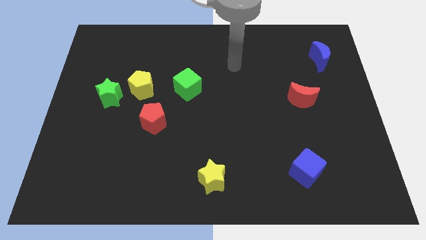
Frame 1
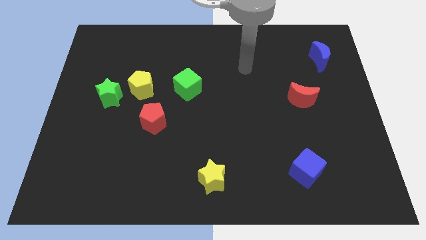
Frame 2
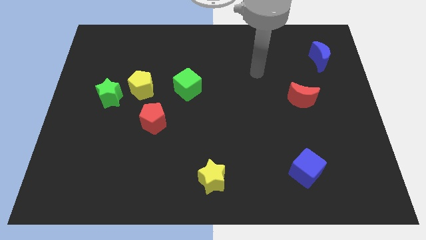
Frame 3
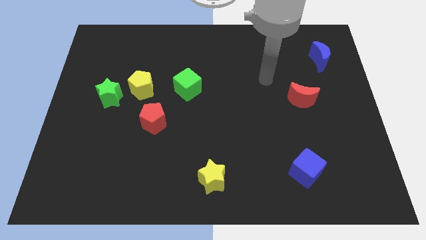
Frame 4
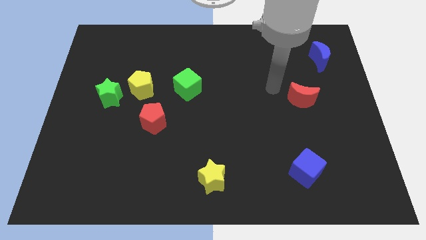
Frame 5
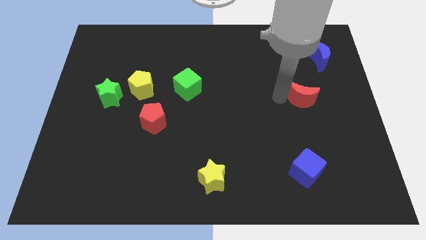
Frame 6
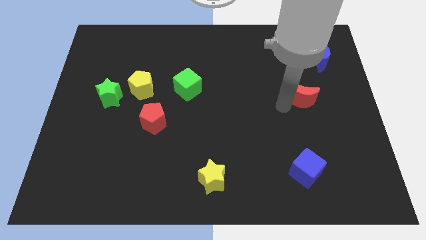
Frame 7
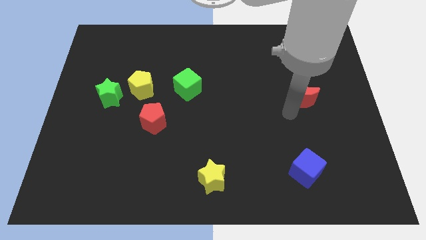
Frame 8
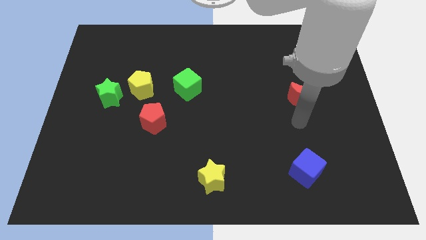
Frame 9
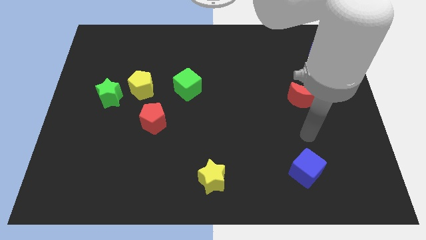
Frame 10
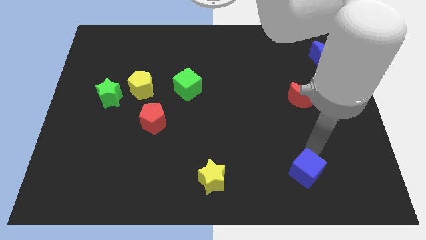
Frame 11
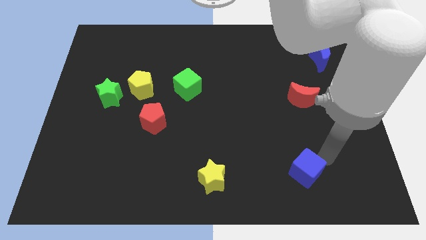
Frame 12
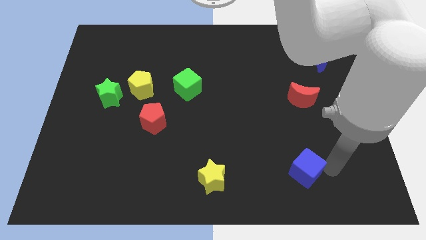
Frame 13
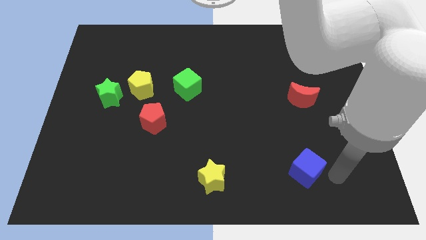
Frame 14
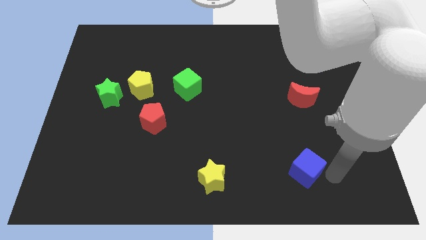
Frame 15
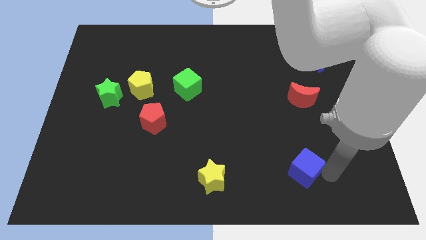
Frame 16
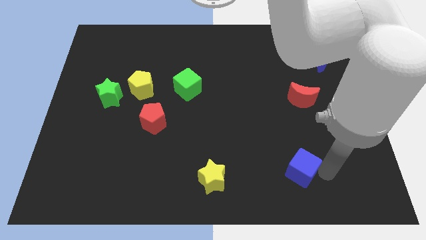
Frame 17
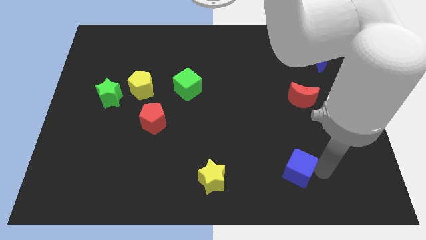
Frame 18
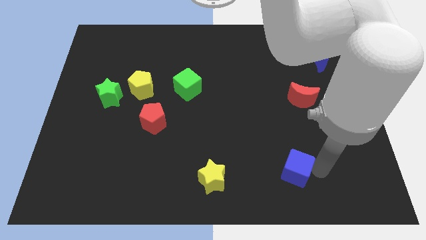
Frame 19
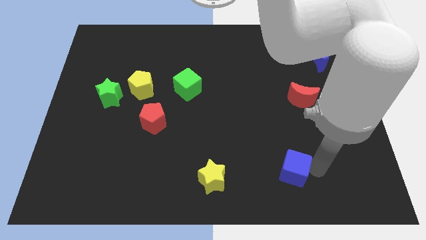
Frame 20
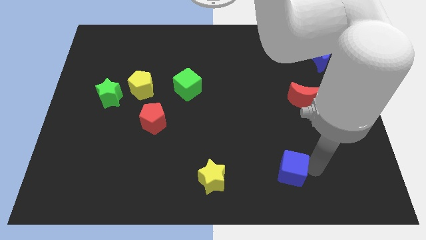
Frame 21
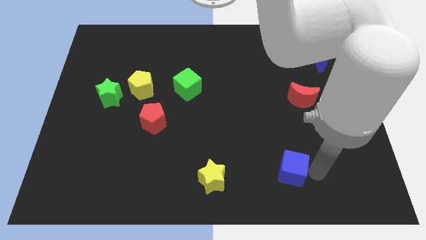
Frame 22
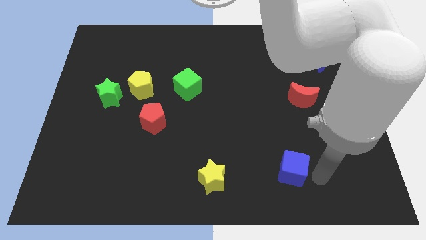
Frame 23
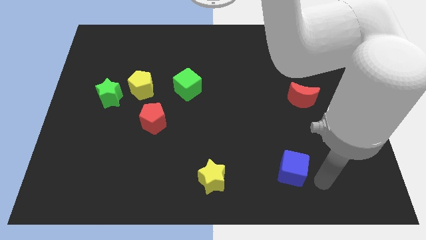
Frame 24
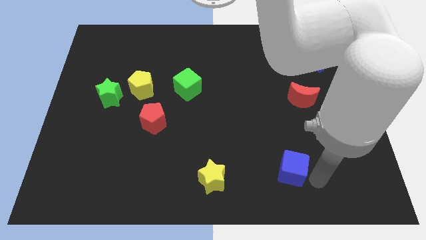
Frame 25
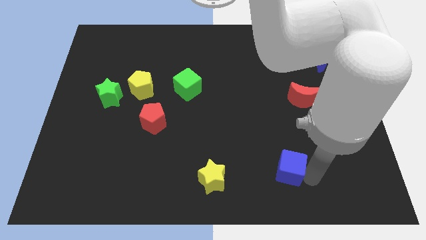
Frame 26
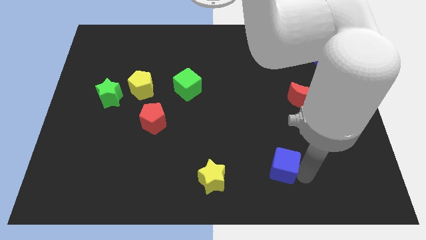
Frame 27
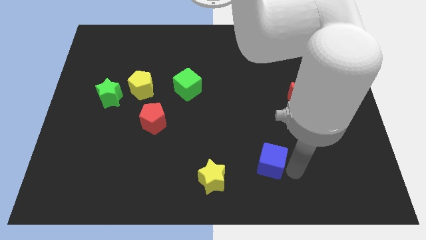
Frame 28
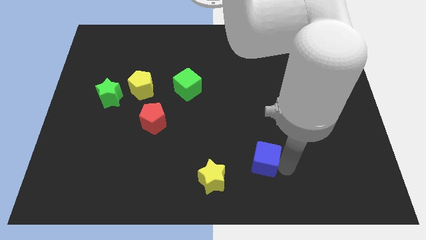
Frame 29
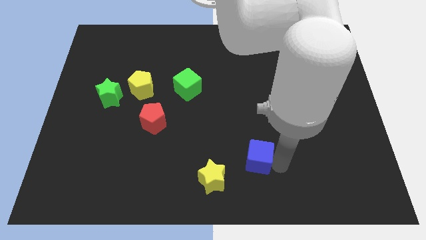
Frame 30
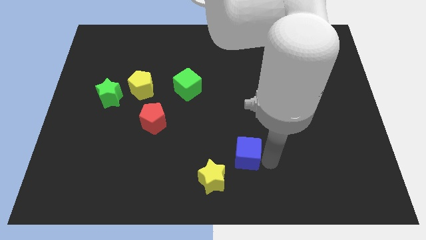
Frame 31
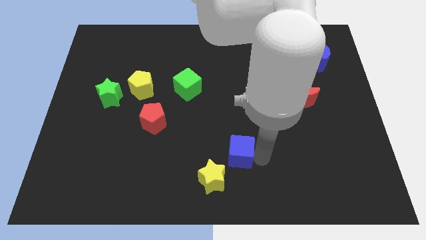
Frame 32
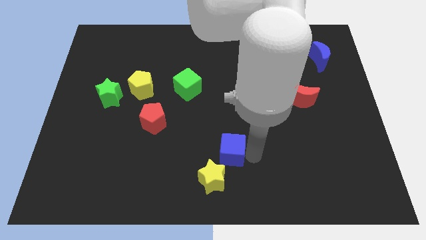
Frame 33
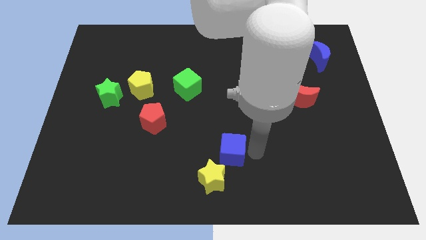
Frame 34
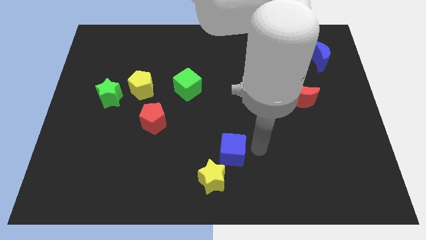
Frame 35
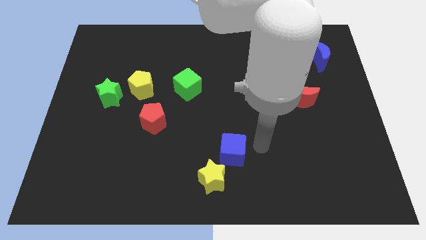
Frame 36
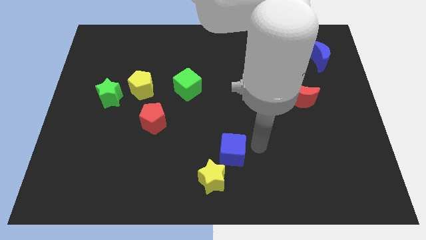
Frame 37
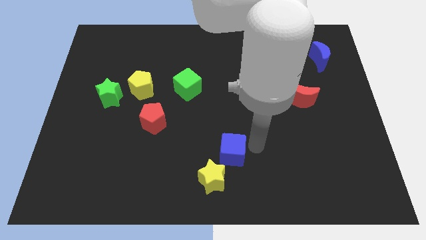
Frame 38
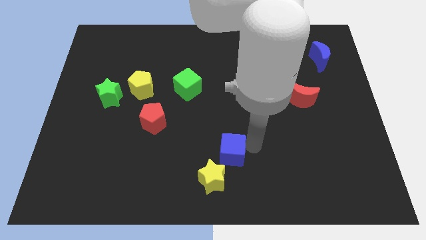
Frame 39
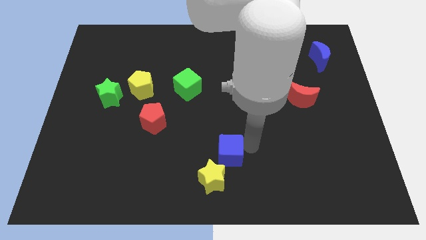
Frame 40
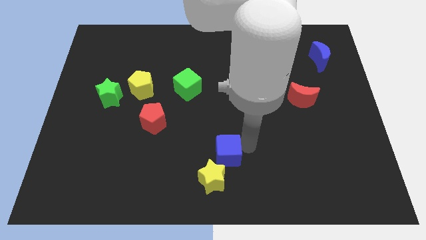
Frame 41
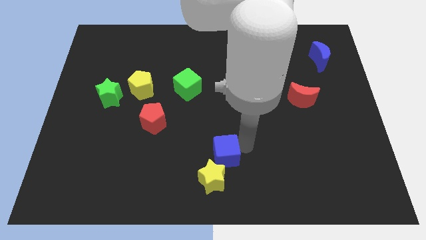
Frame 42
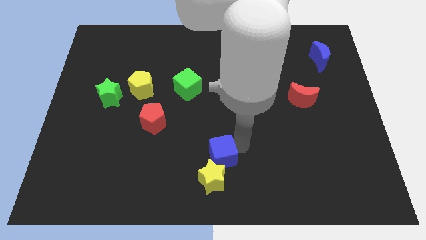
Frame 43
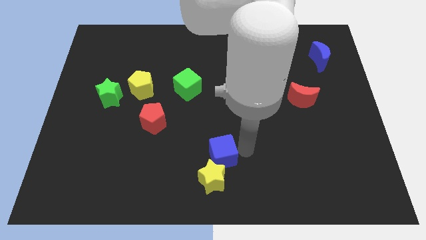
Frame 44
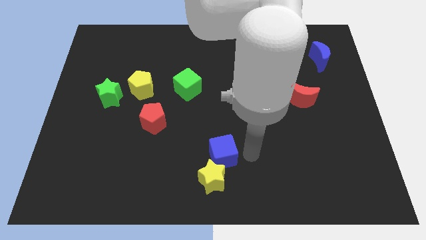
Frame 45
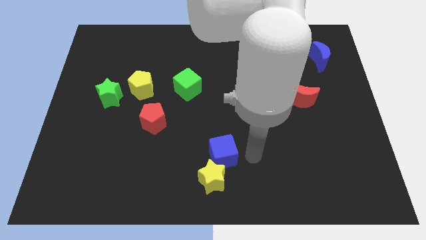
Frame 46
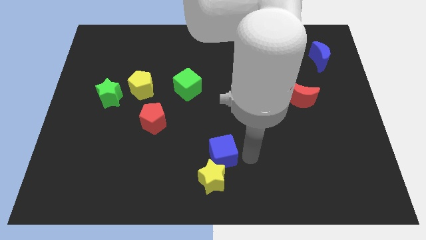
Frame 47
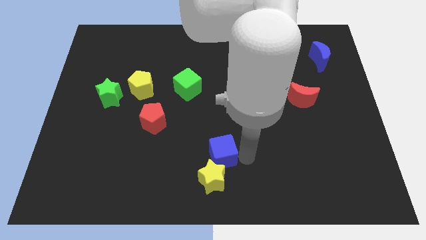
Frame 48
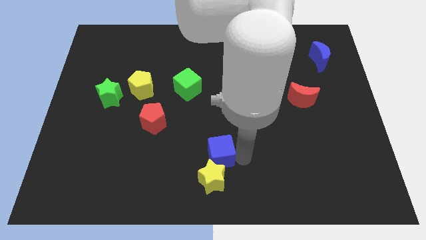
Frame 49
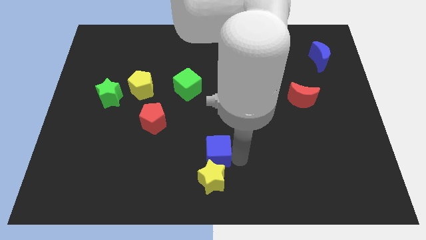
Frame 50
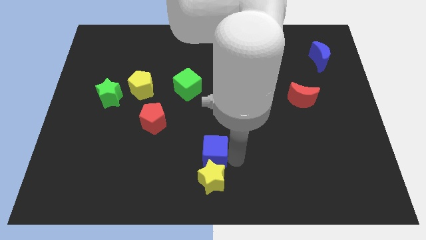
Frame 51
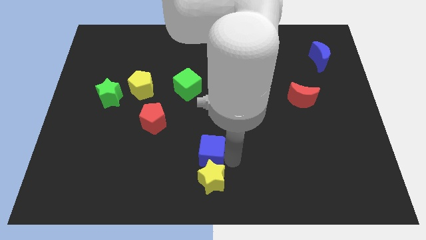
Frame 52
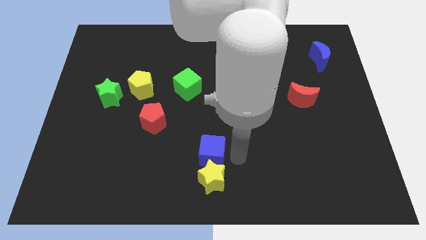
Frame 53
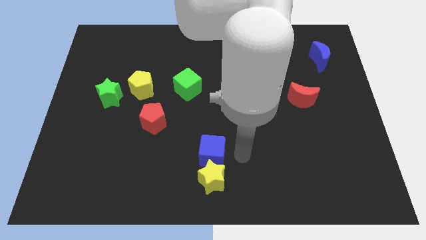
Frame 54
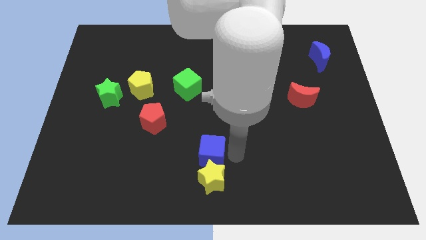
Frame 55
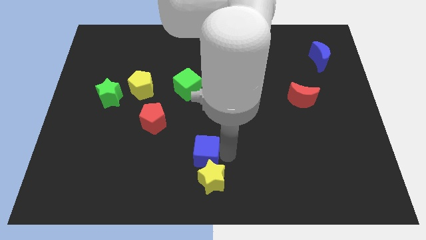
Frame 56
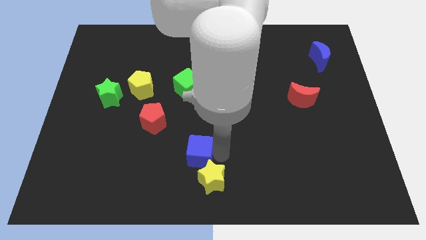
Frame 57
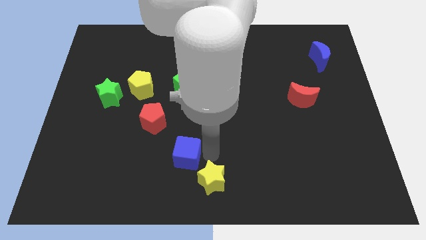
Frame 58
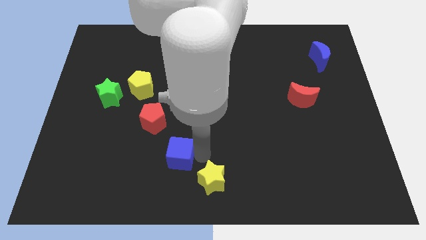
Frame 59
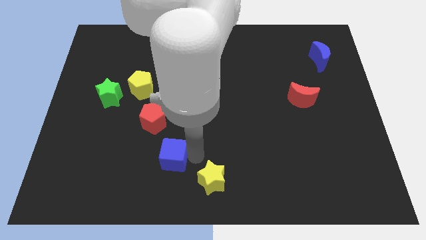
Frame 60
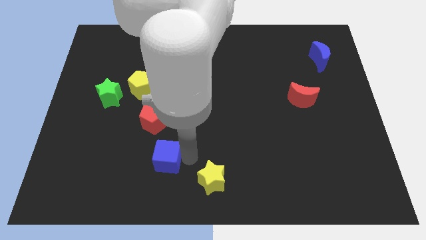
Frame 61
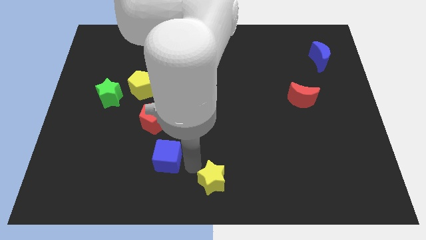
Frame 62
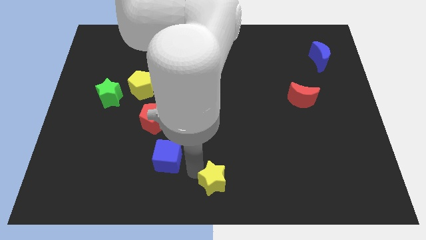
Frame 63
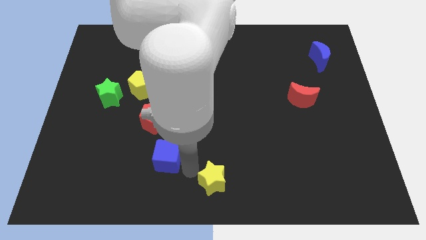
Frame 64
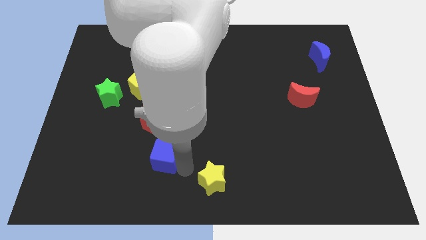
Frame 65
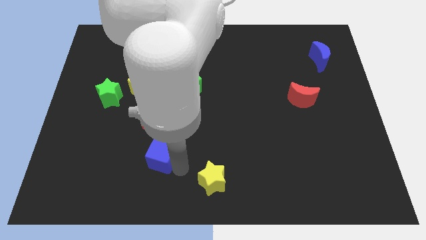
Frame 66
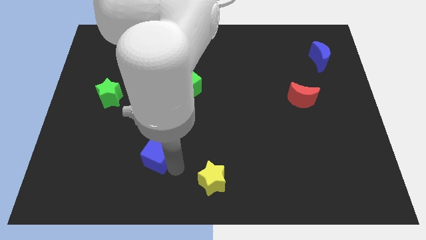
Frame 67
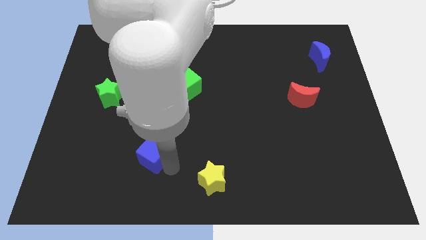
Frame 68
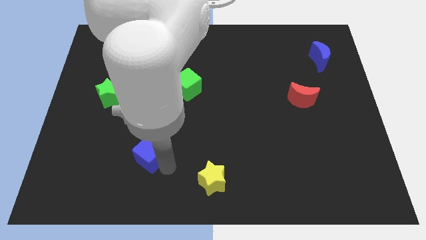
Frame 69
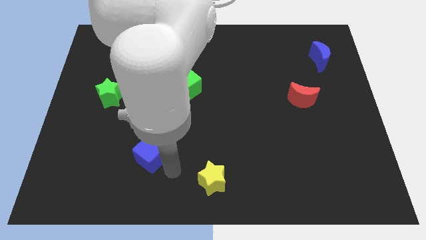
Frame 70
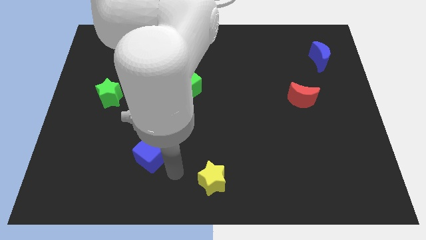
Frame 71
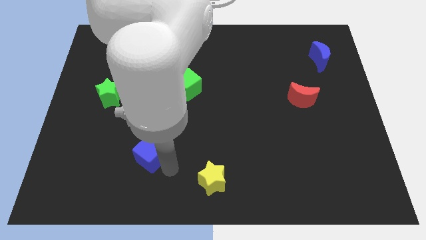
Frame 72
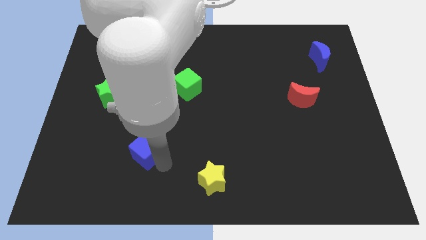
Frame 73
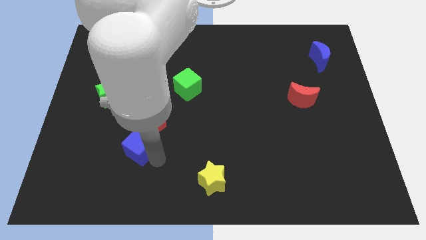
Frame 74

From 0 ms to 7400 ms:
move the blue cube diagonally down and to the left of the red pentagon
